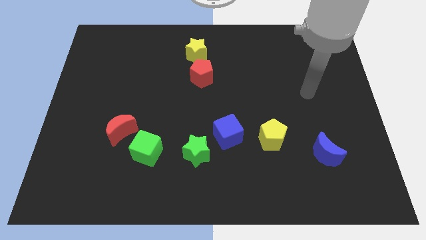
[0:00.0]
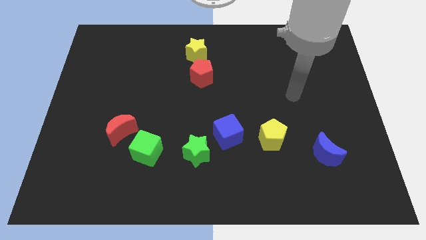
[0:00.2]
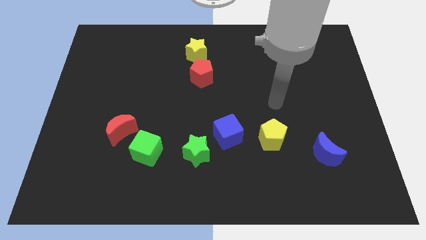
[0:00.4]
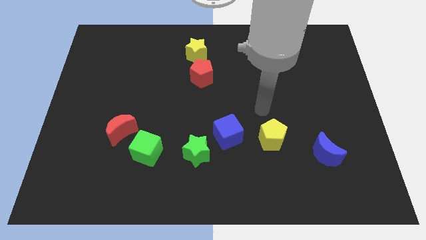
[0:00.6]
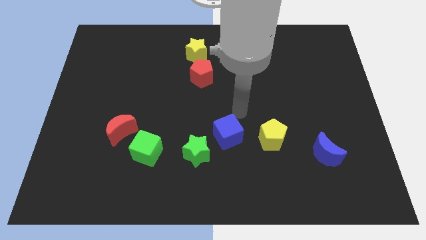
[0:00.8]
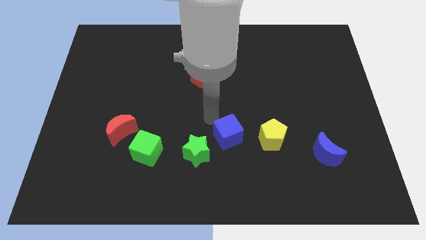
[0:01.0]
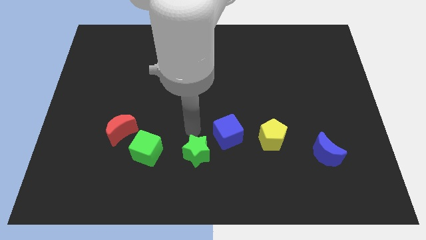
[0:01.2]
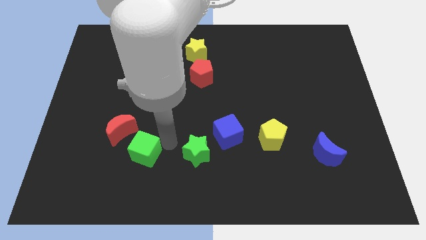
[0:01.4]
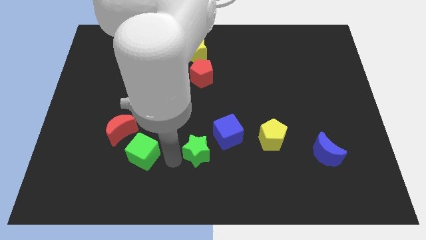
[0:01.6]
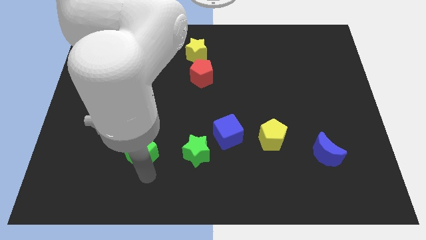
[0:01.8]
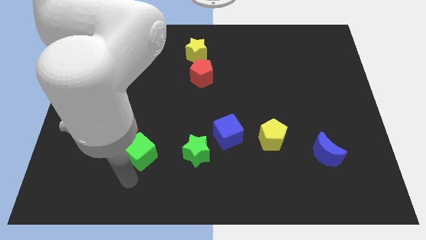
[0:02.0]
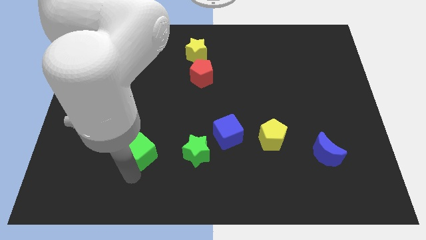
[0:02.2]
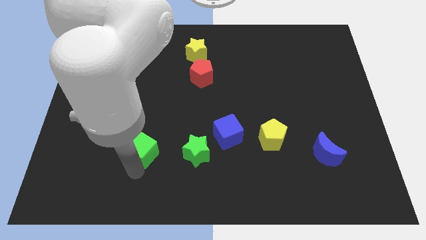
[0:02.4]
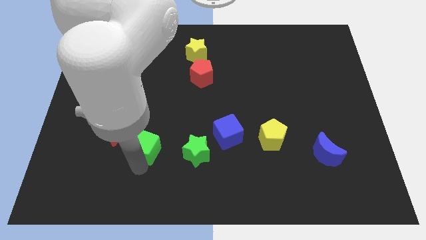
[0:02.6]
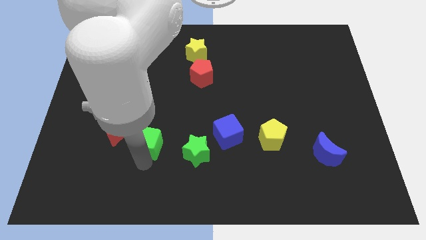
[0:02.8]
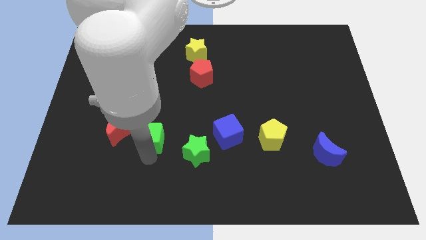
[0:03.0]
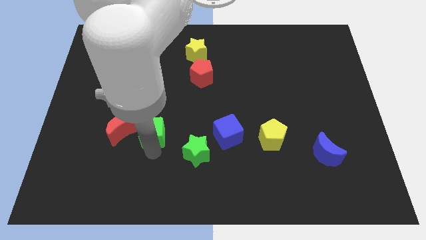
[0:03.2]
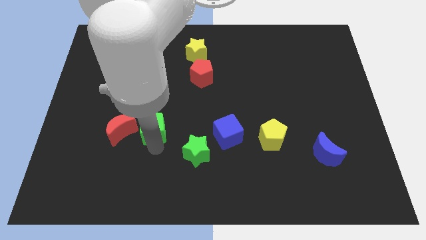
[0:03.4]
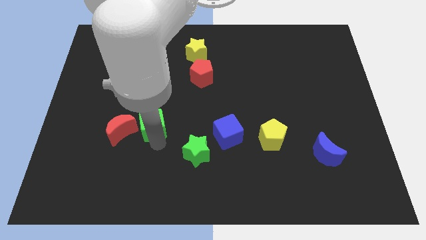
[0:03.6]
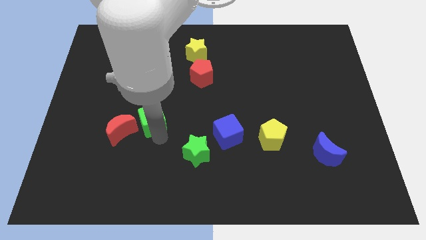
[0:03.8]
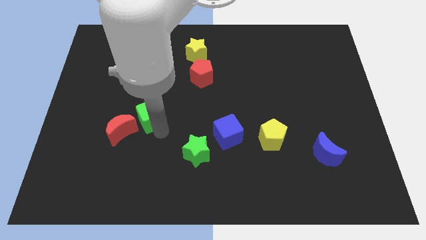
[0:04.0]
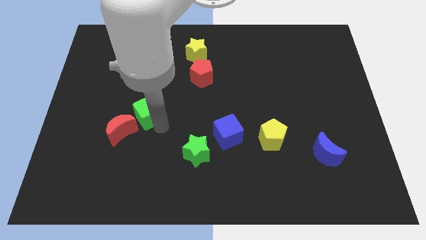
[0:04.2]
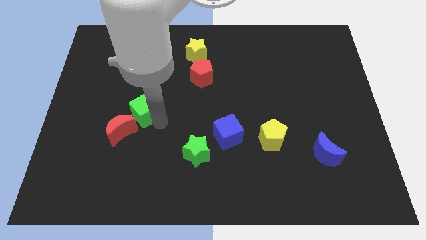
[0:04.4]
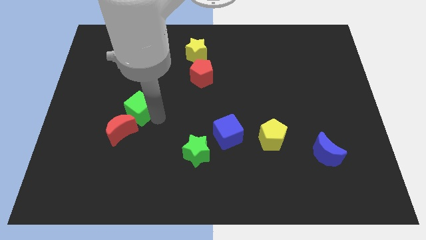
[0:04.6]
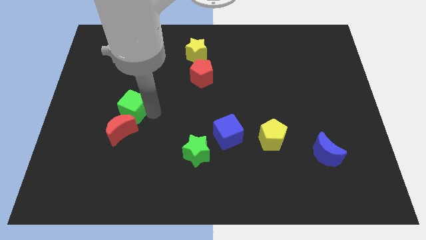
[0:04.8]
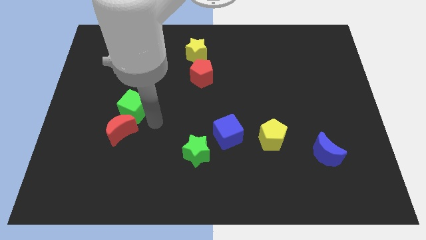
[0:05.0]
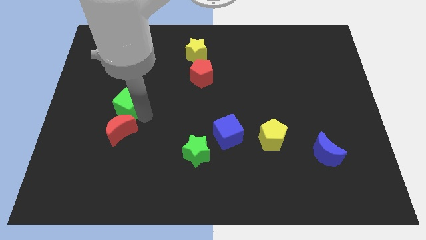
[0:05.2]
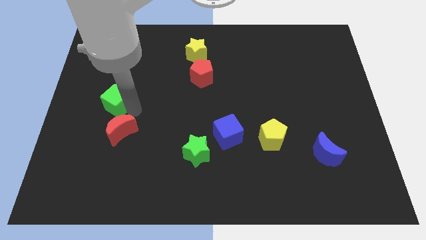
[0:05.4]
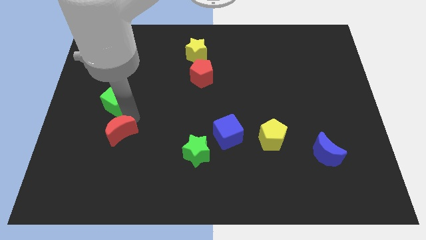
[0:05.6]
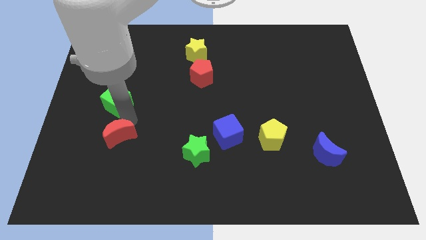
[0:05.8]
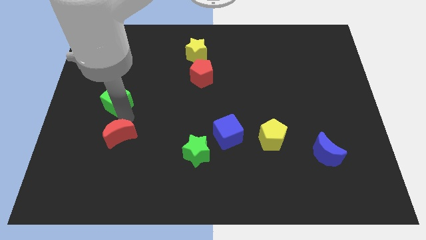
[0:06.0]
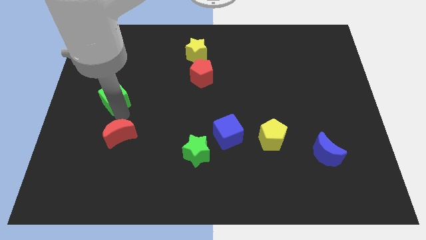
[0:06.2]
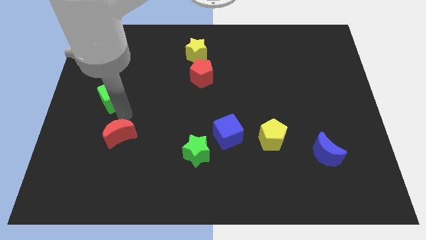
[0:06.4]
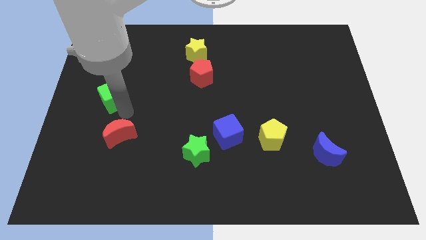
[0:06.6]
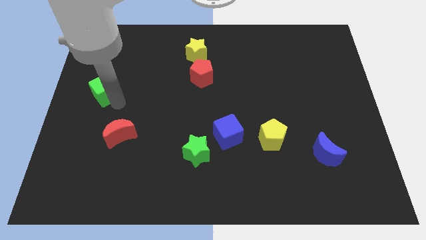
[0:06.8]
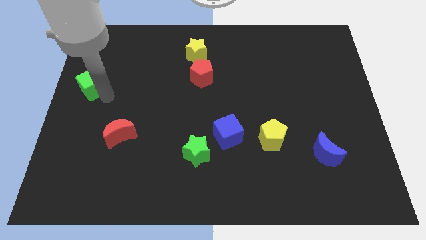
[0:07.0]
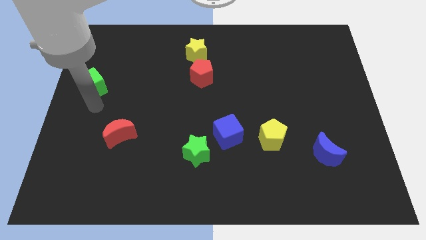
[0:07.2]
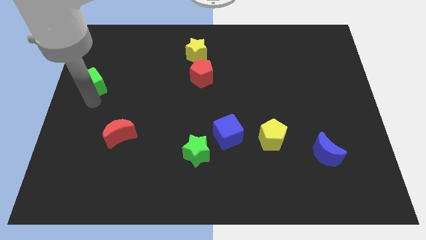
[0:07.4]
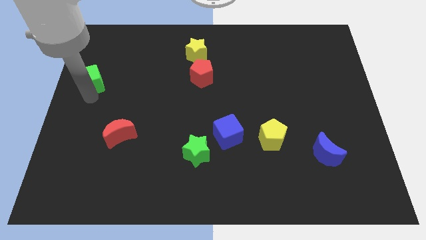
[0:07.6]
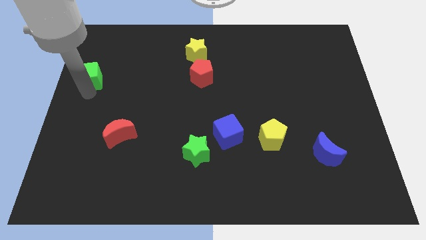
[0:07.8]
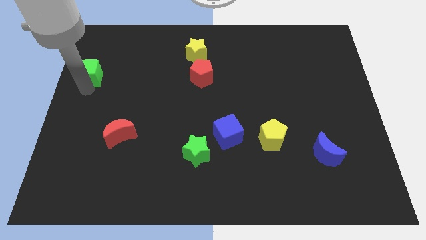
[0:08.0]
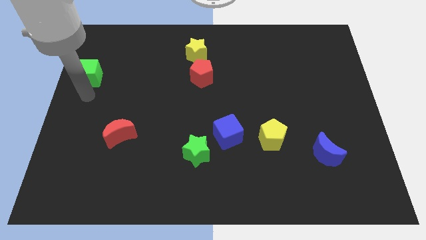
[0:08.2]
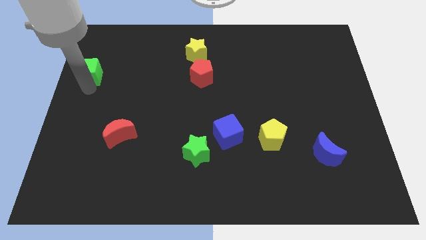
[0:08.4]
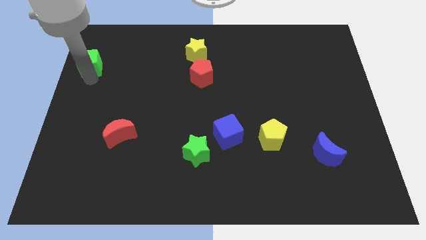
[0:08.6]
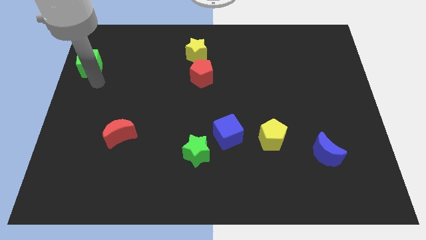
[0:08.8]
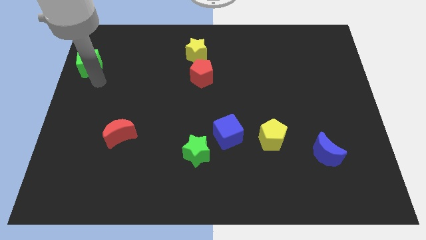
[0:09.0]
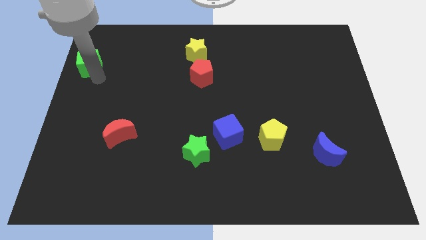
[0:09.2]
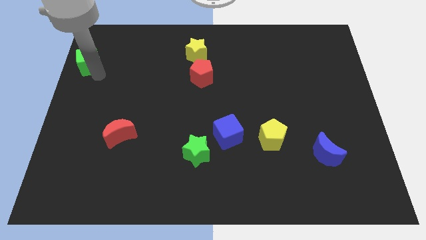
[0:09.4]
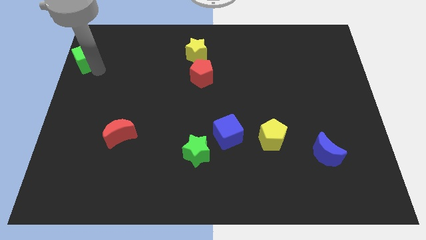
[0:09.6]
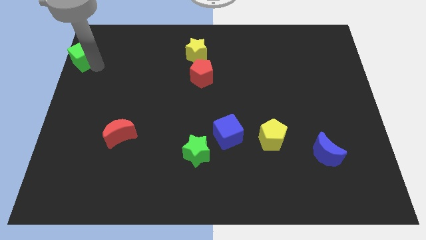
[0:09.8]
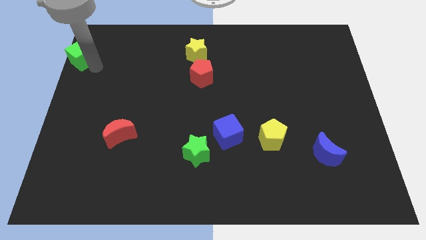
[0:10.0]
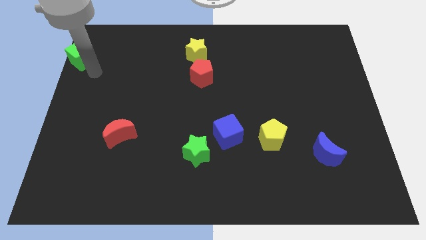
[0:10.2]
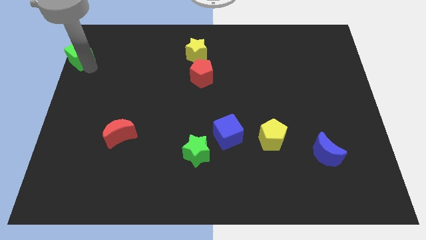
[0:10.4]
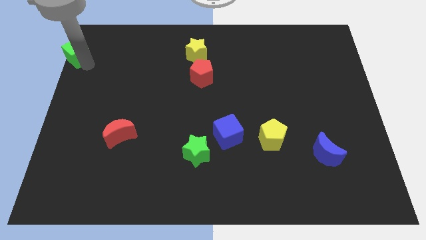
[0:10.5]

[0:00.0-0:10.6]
slide the green cube to the upper left corner

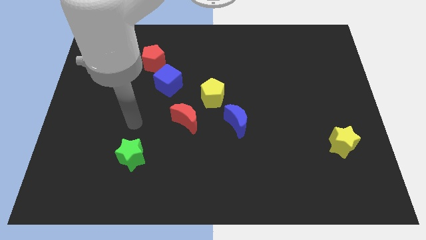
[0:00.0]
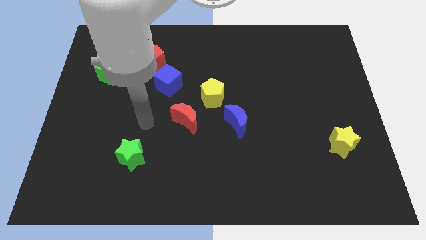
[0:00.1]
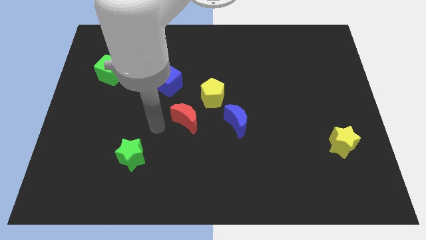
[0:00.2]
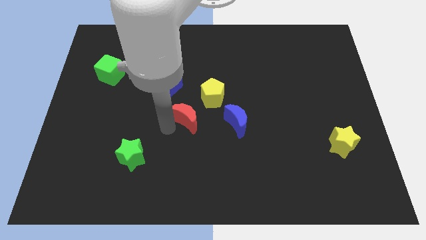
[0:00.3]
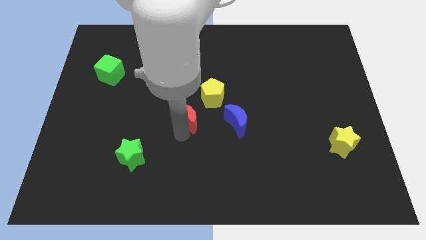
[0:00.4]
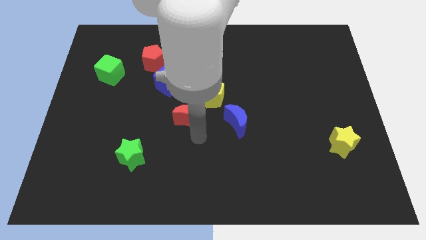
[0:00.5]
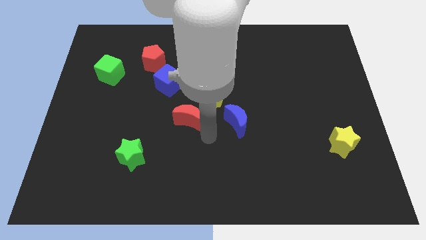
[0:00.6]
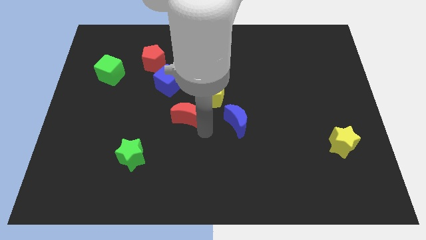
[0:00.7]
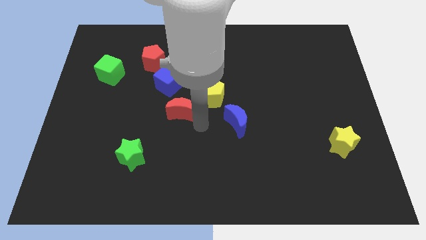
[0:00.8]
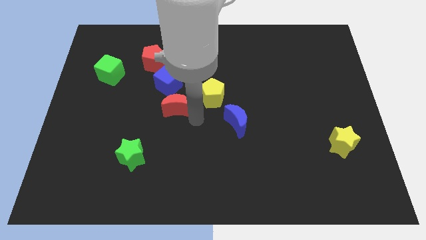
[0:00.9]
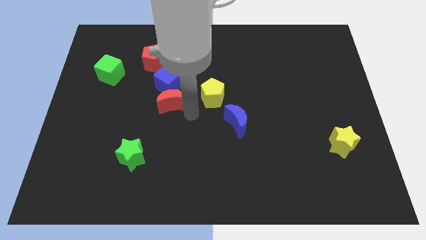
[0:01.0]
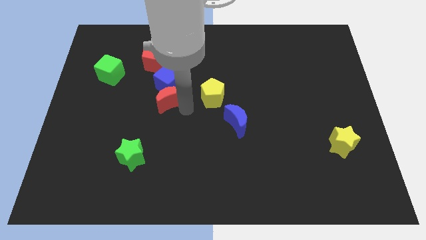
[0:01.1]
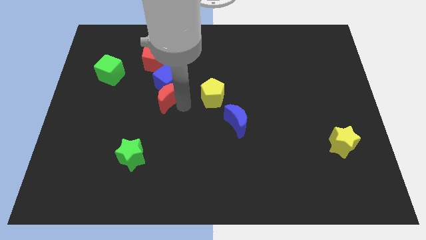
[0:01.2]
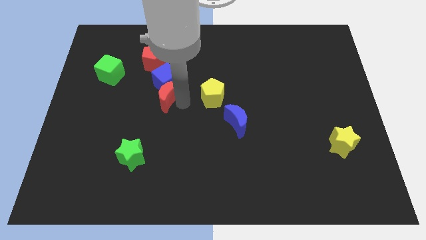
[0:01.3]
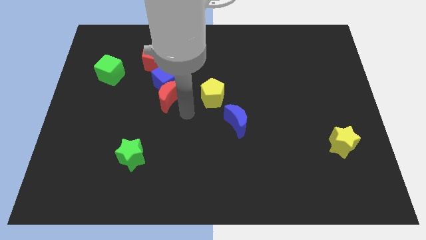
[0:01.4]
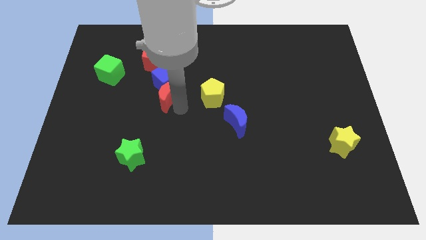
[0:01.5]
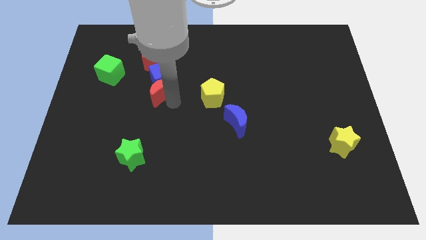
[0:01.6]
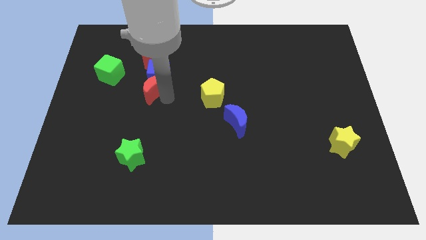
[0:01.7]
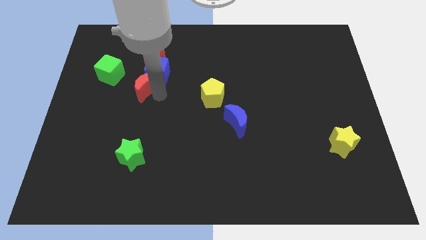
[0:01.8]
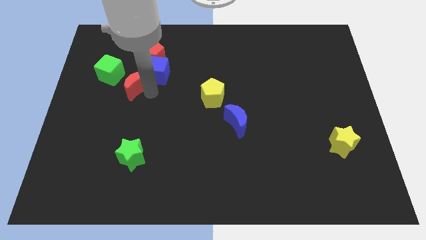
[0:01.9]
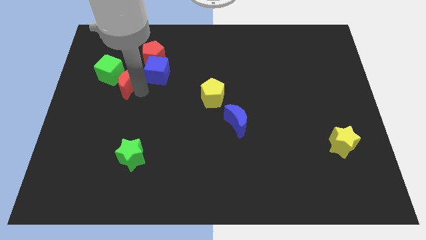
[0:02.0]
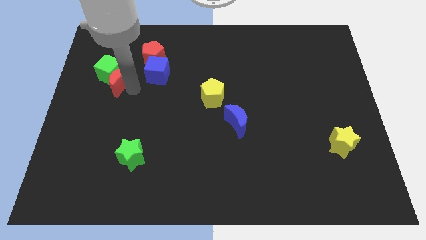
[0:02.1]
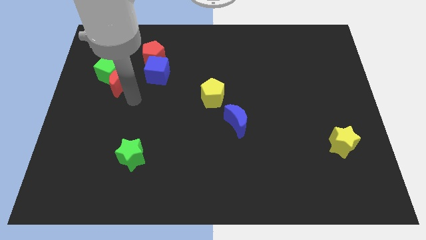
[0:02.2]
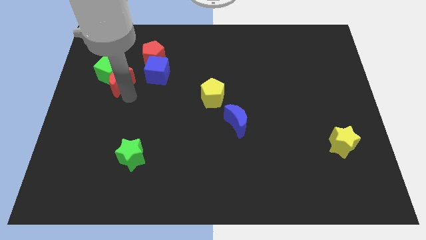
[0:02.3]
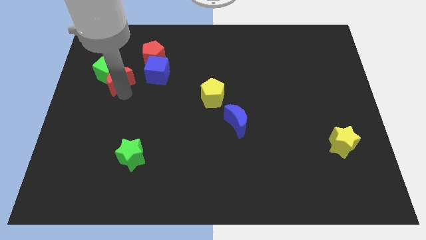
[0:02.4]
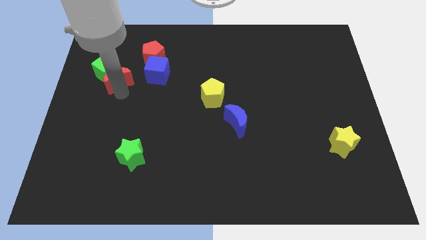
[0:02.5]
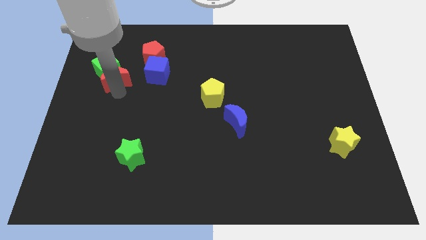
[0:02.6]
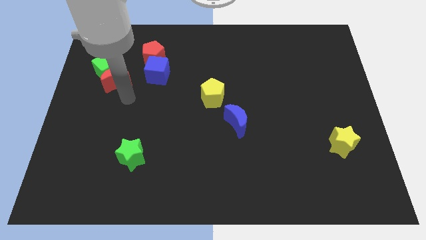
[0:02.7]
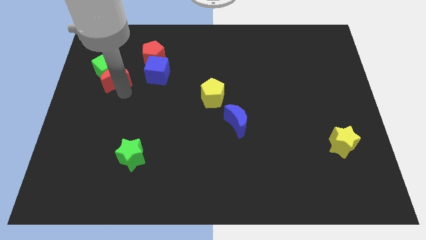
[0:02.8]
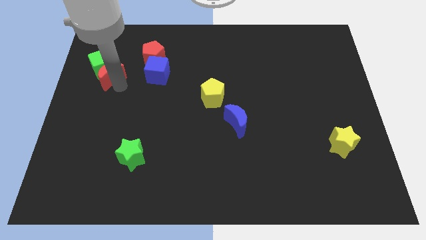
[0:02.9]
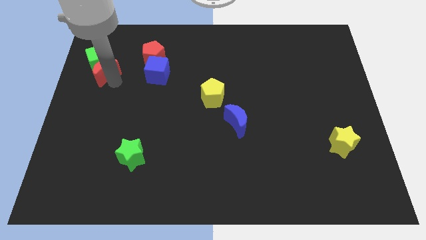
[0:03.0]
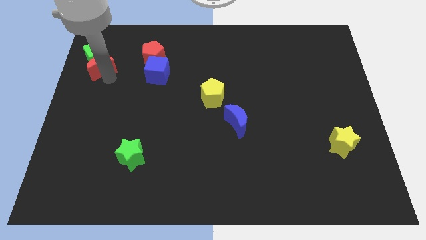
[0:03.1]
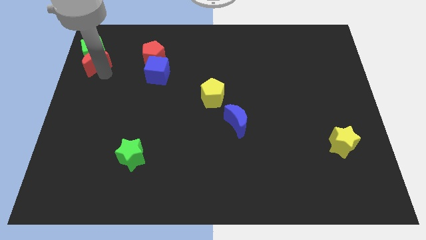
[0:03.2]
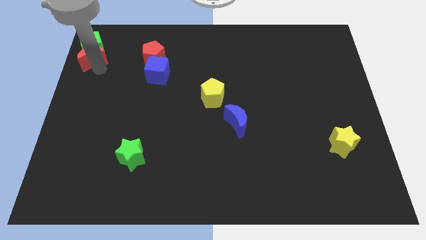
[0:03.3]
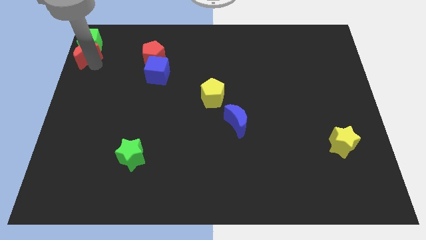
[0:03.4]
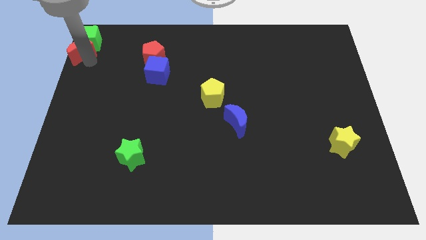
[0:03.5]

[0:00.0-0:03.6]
put the red moon to the top left corner
